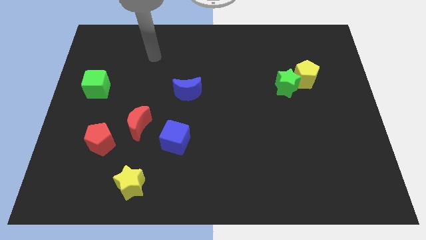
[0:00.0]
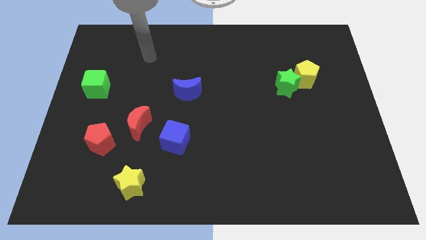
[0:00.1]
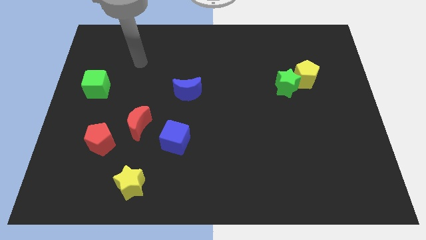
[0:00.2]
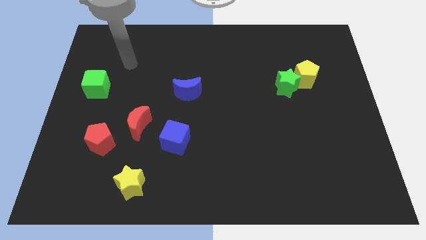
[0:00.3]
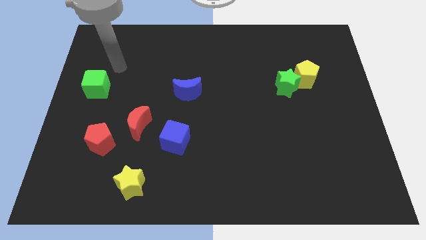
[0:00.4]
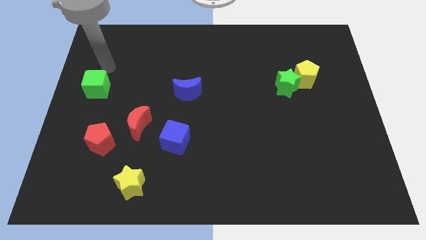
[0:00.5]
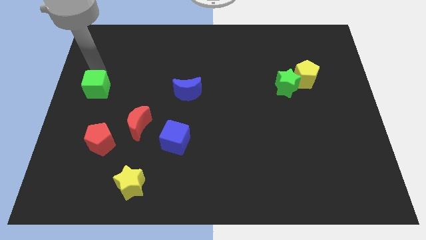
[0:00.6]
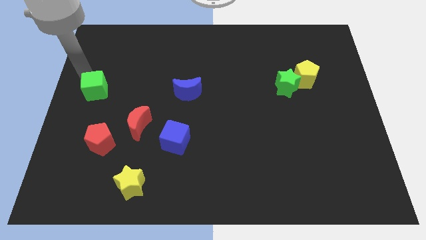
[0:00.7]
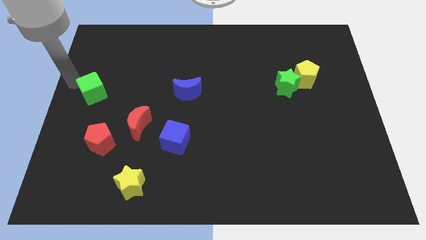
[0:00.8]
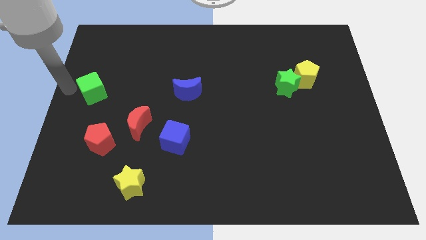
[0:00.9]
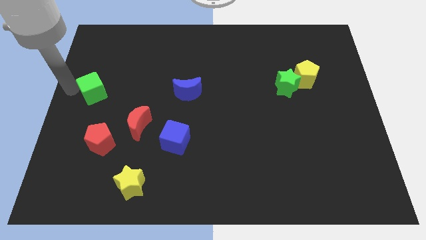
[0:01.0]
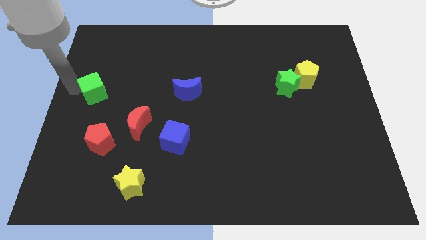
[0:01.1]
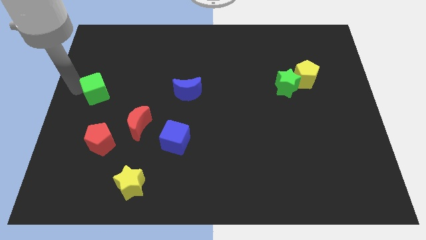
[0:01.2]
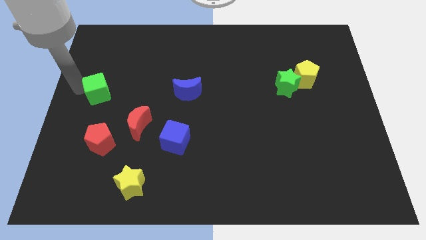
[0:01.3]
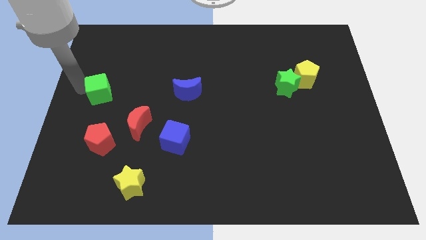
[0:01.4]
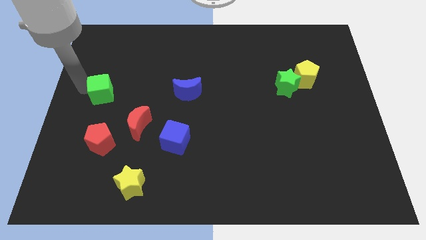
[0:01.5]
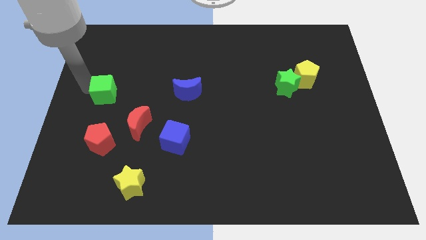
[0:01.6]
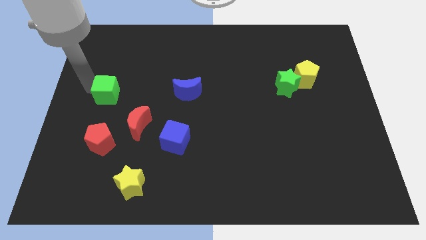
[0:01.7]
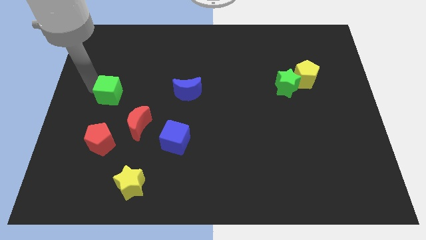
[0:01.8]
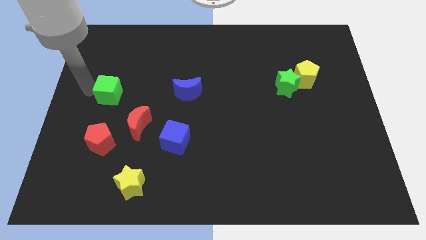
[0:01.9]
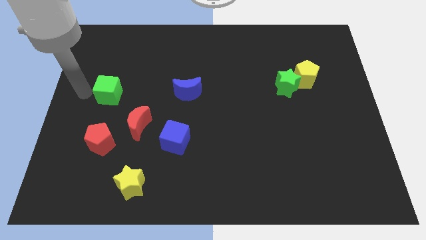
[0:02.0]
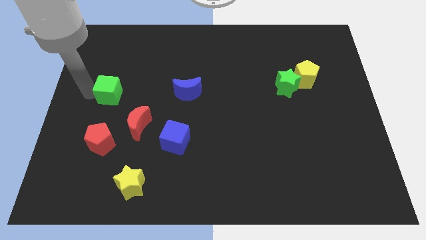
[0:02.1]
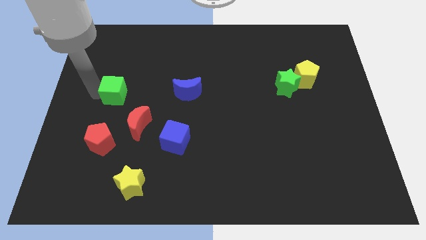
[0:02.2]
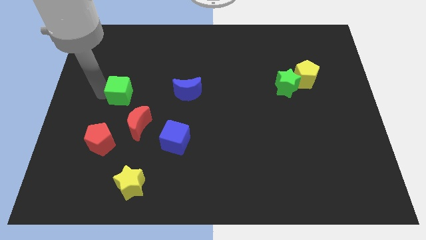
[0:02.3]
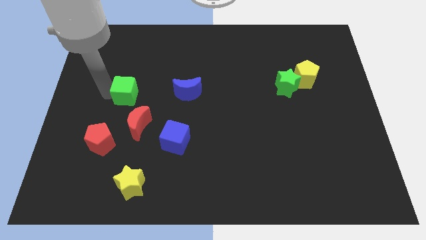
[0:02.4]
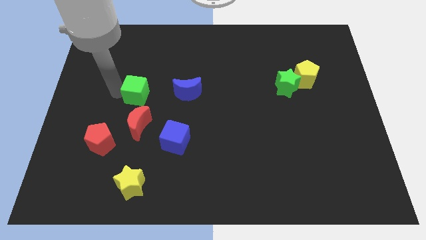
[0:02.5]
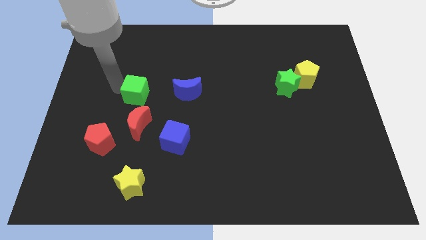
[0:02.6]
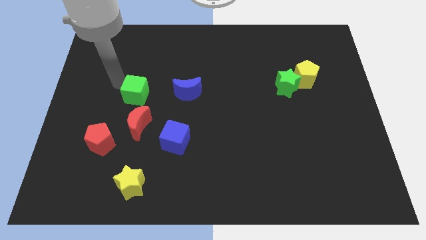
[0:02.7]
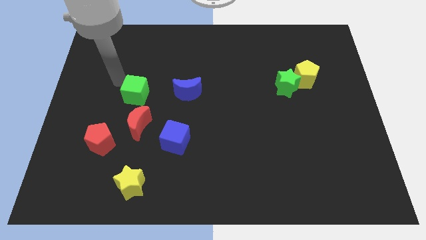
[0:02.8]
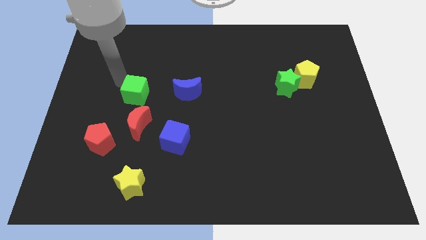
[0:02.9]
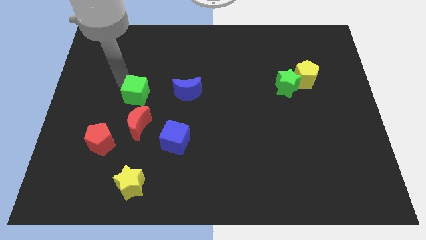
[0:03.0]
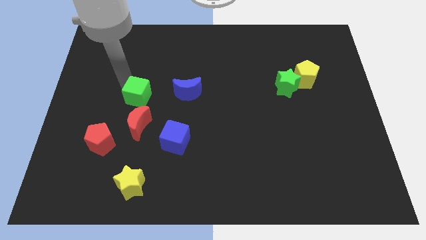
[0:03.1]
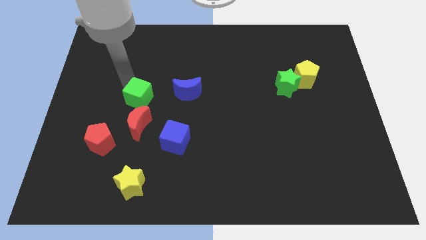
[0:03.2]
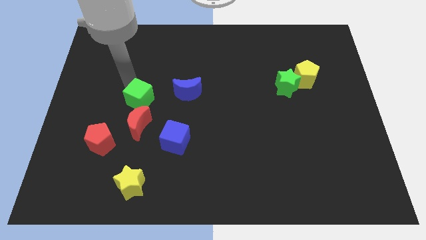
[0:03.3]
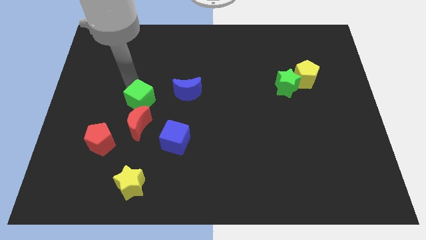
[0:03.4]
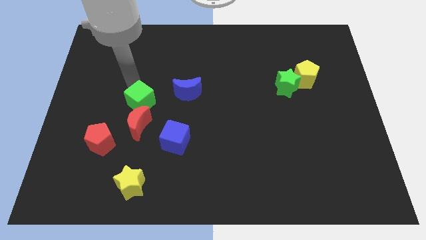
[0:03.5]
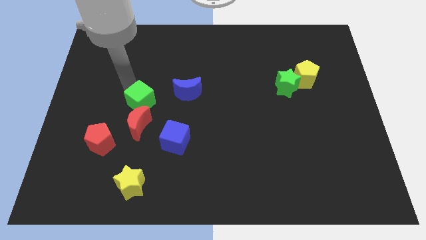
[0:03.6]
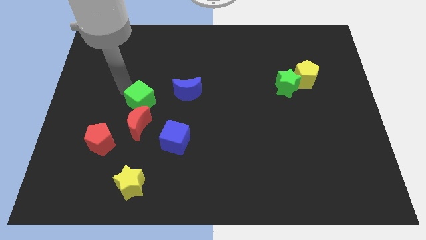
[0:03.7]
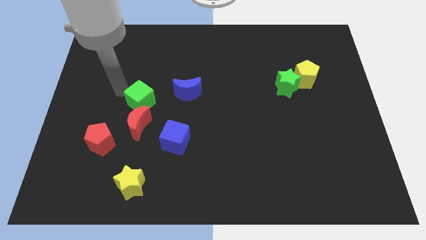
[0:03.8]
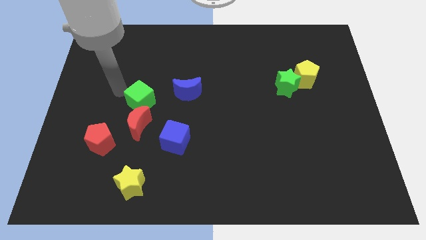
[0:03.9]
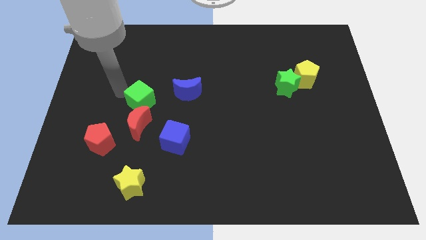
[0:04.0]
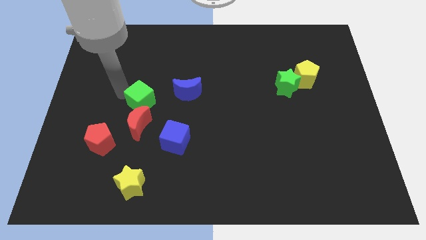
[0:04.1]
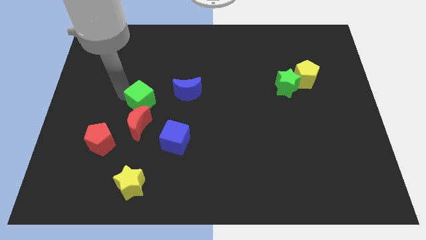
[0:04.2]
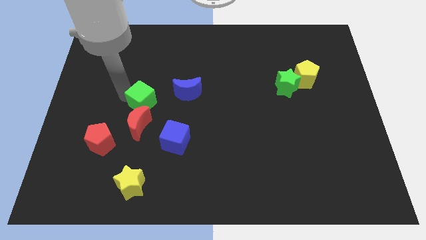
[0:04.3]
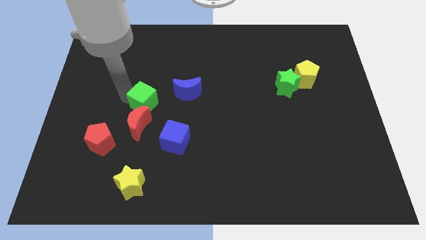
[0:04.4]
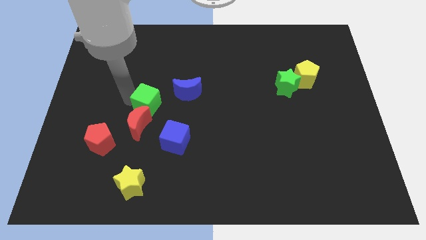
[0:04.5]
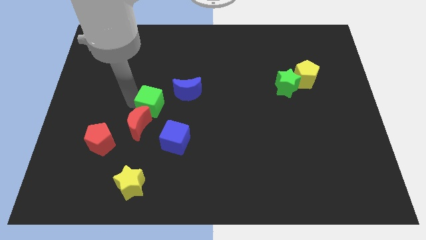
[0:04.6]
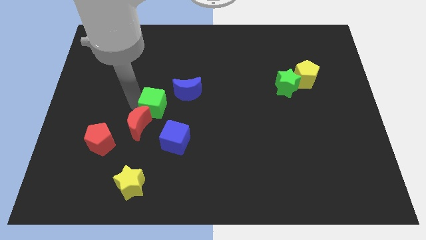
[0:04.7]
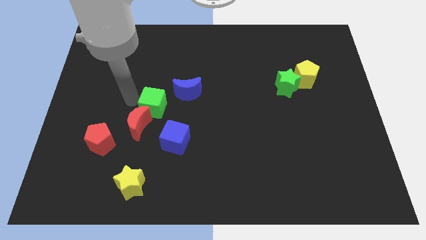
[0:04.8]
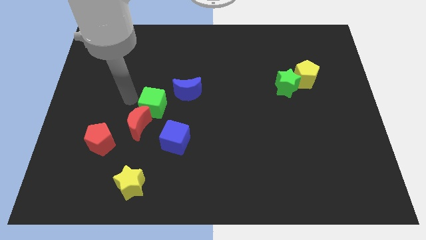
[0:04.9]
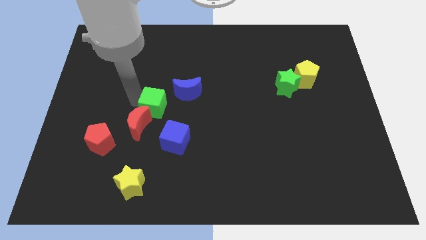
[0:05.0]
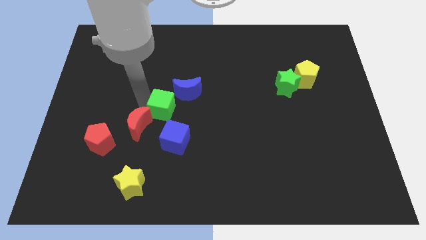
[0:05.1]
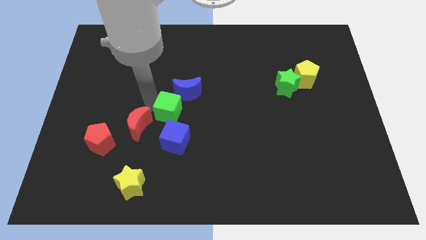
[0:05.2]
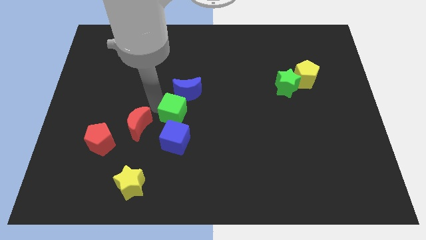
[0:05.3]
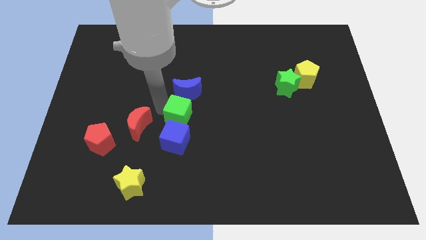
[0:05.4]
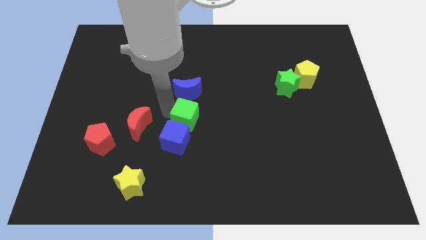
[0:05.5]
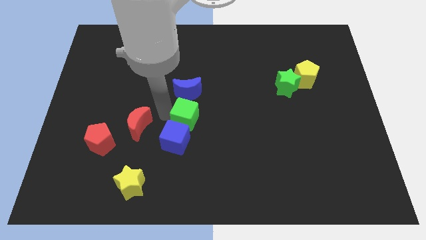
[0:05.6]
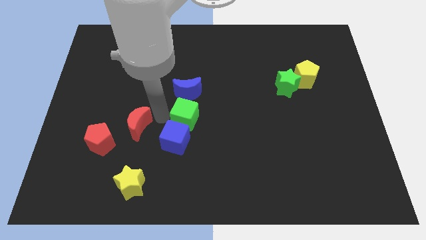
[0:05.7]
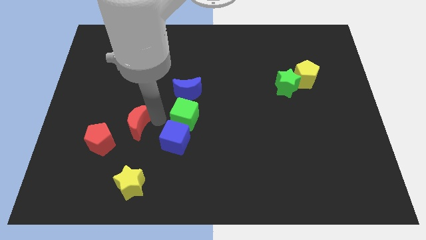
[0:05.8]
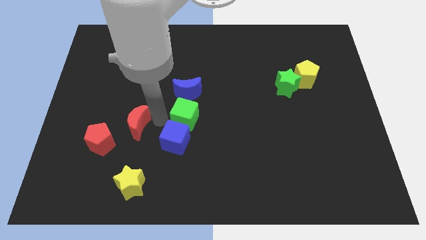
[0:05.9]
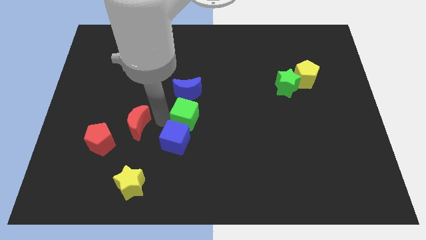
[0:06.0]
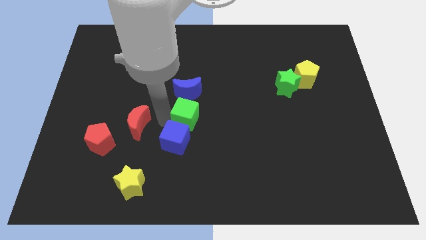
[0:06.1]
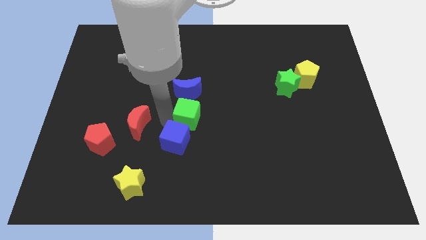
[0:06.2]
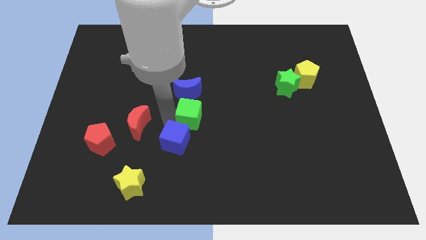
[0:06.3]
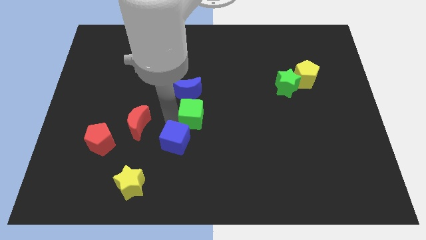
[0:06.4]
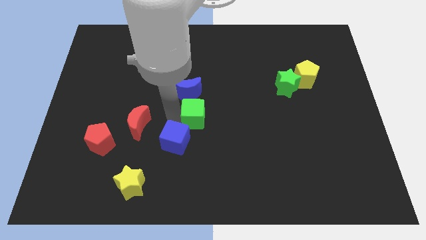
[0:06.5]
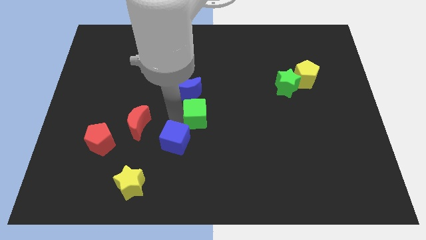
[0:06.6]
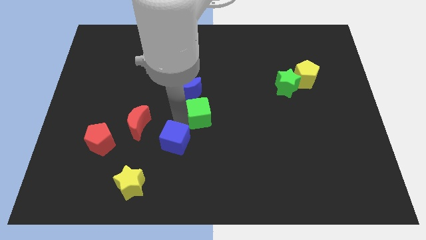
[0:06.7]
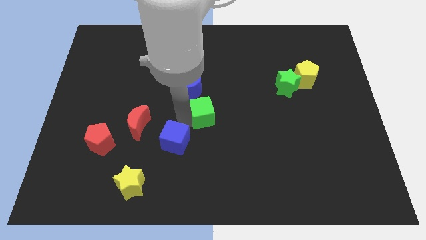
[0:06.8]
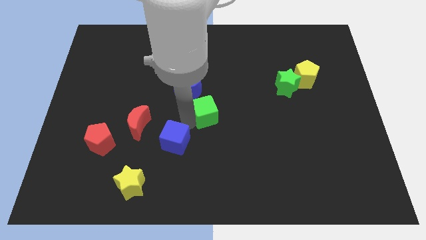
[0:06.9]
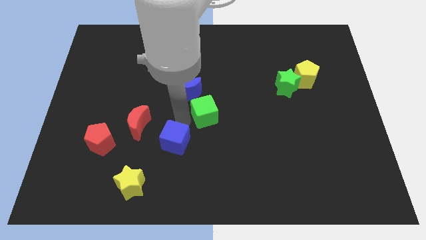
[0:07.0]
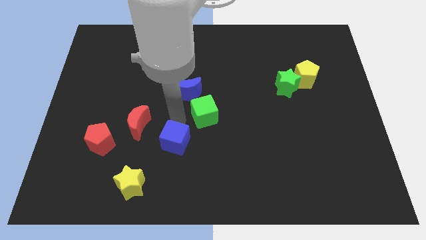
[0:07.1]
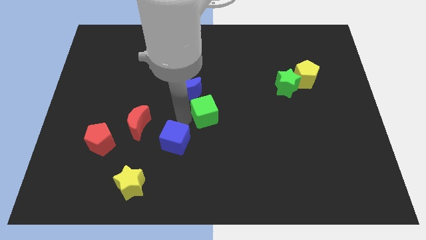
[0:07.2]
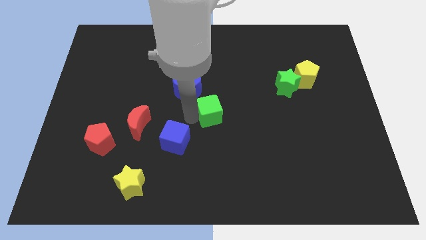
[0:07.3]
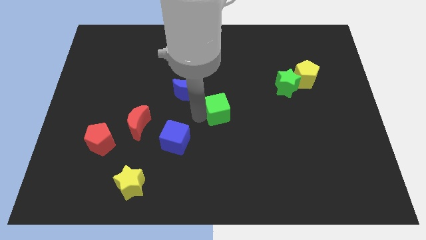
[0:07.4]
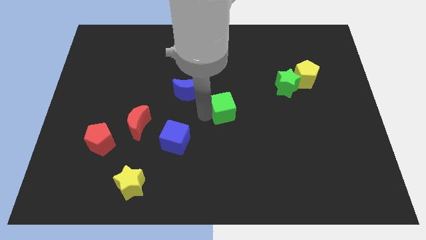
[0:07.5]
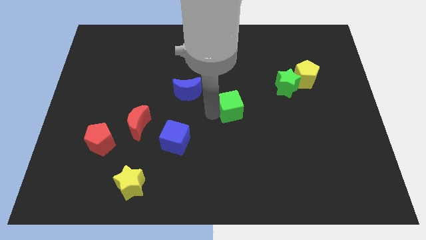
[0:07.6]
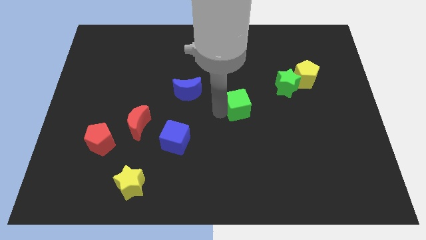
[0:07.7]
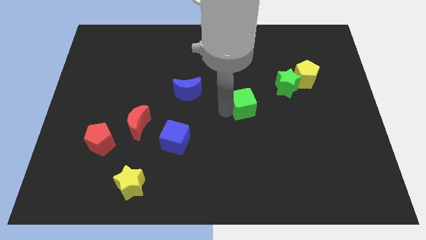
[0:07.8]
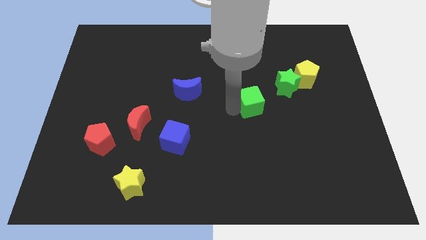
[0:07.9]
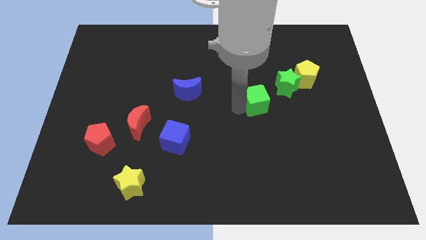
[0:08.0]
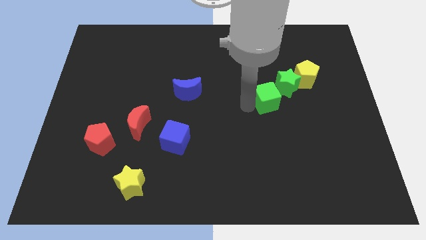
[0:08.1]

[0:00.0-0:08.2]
push the green cube to the bottom left side of the yellow pentagon

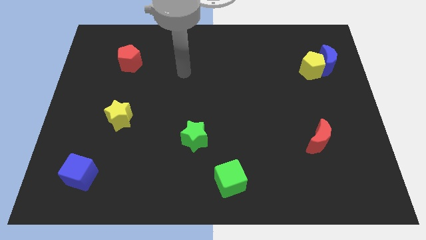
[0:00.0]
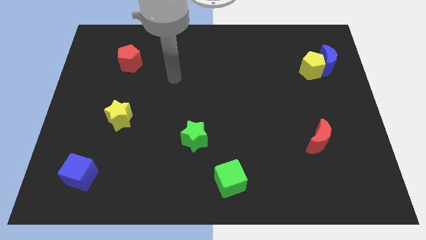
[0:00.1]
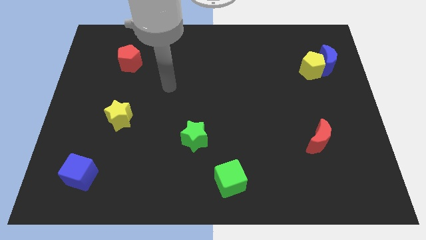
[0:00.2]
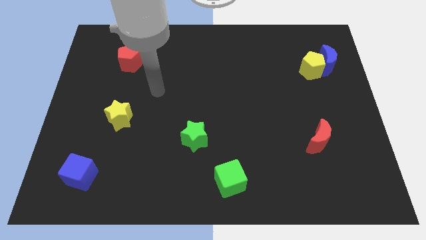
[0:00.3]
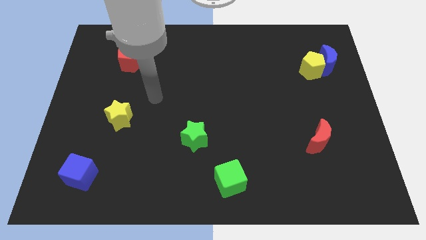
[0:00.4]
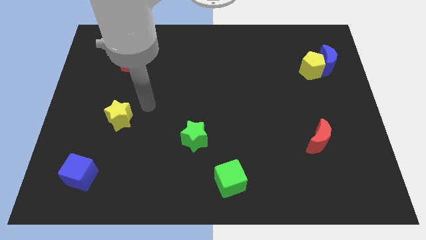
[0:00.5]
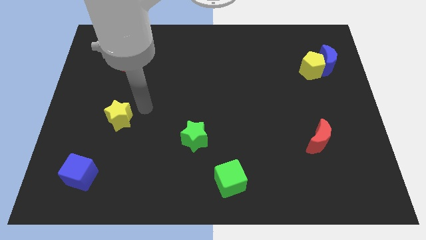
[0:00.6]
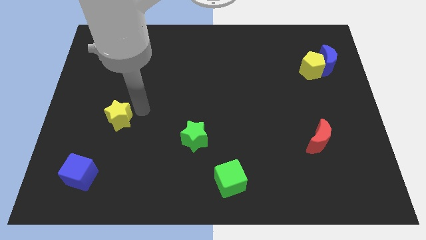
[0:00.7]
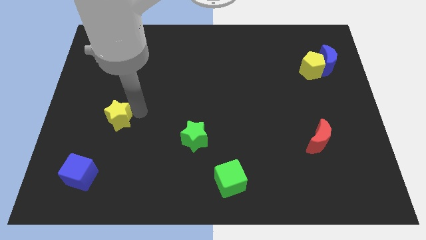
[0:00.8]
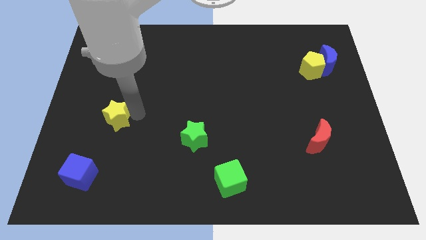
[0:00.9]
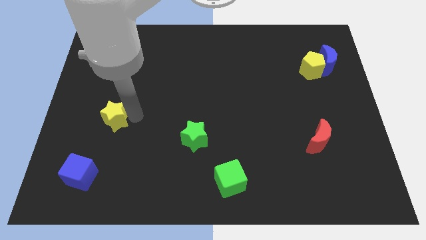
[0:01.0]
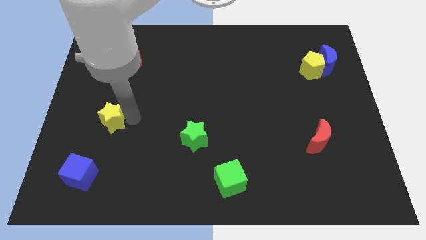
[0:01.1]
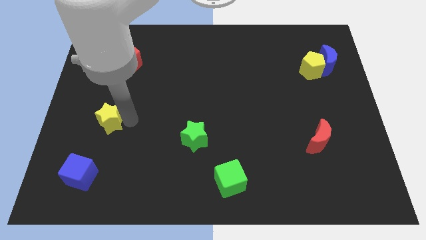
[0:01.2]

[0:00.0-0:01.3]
move the yellow star above the blue cube
